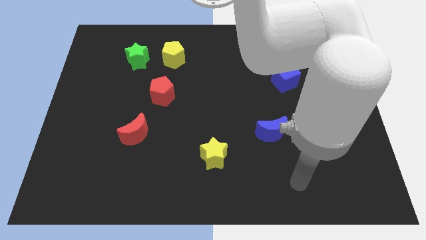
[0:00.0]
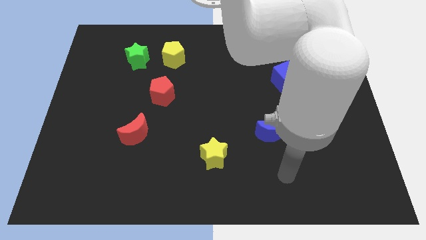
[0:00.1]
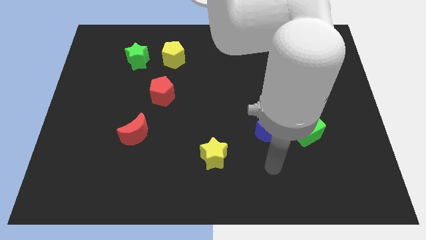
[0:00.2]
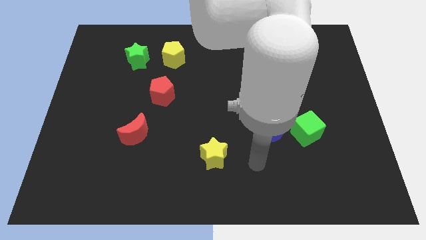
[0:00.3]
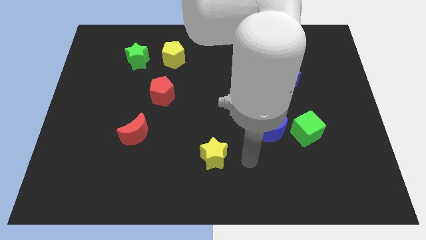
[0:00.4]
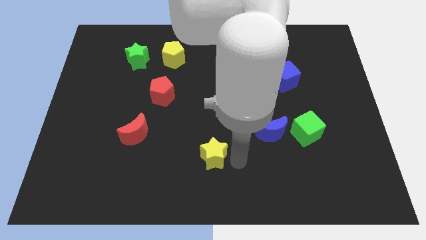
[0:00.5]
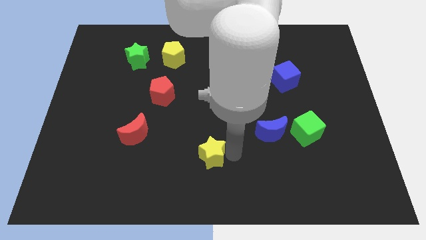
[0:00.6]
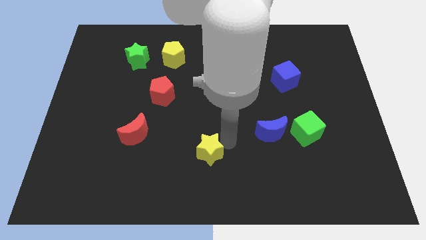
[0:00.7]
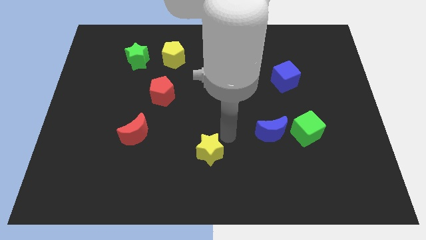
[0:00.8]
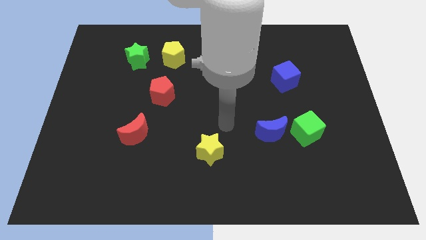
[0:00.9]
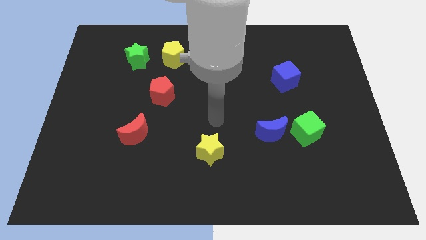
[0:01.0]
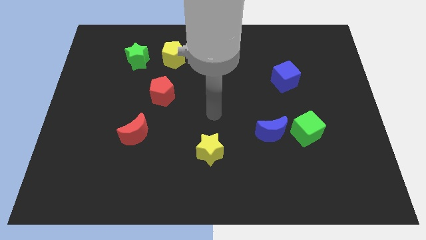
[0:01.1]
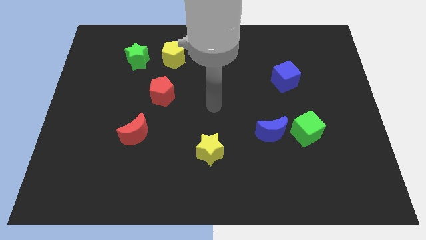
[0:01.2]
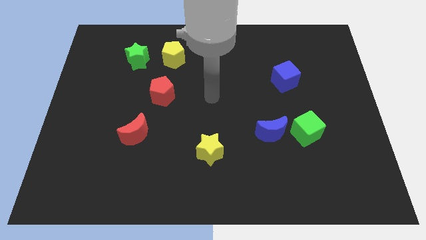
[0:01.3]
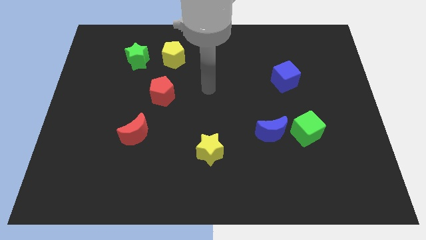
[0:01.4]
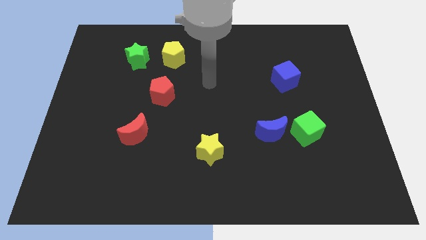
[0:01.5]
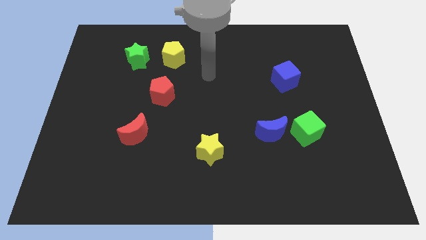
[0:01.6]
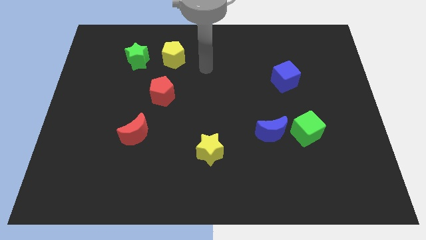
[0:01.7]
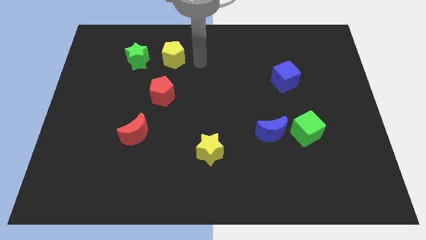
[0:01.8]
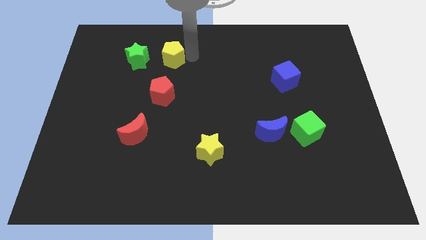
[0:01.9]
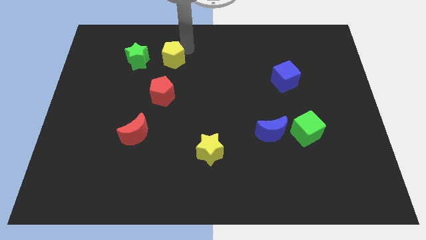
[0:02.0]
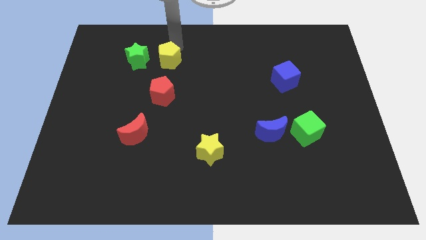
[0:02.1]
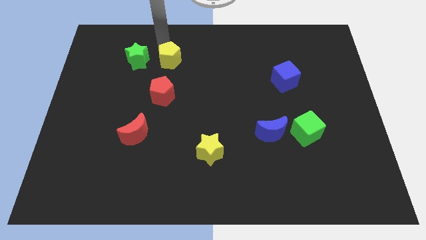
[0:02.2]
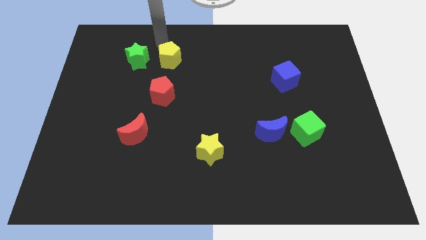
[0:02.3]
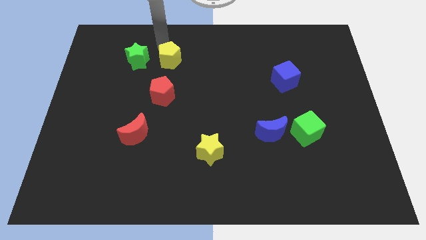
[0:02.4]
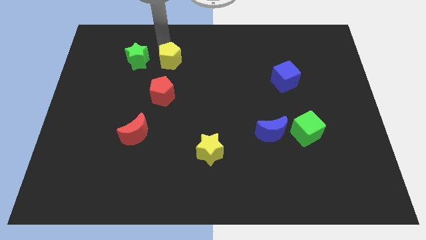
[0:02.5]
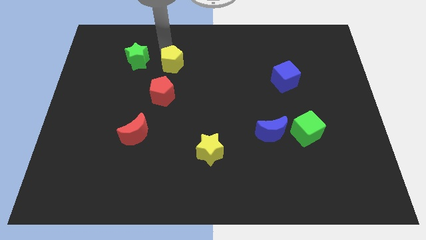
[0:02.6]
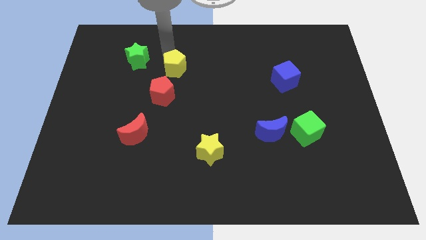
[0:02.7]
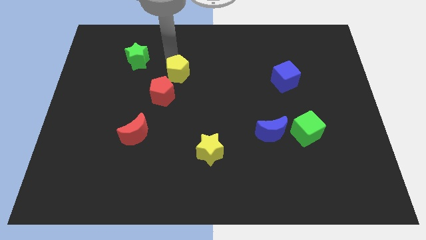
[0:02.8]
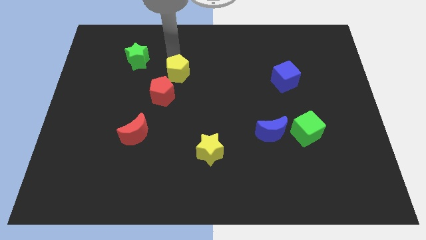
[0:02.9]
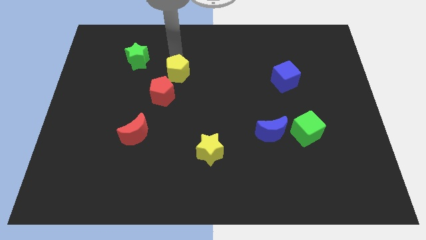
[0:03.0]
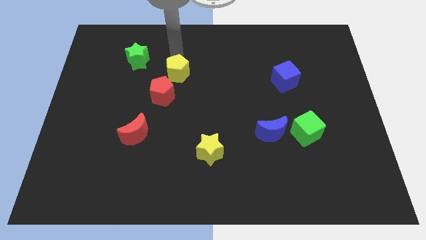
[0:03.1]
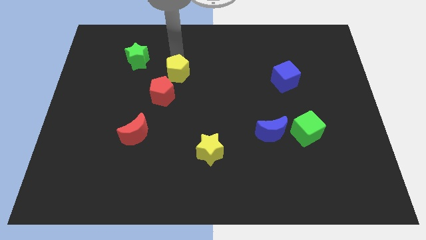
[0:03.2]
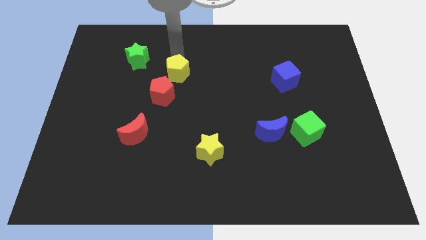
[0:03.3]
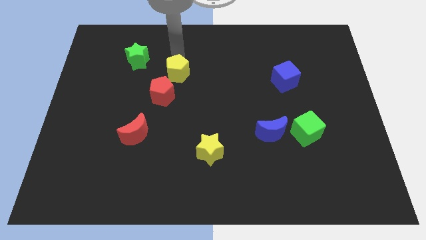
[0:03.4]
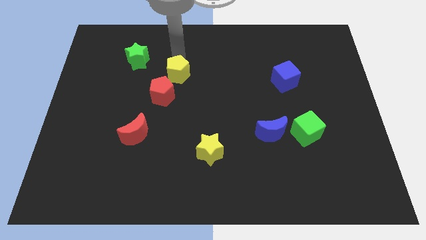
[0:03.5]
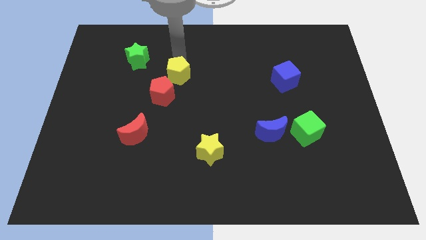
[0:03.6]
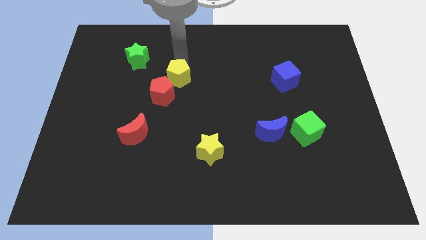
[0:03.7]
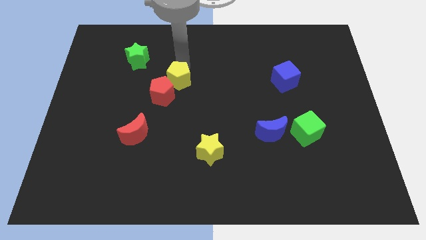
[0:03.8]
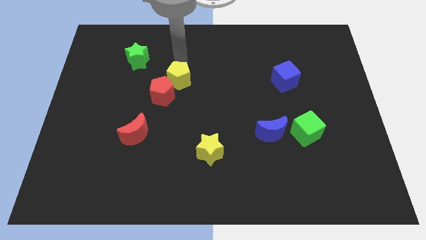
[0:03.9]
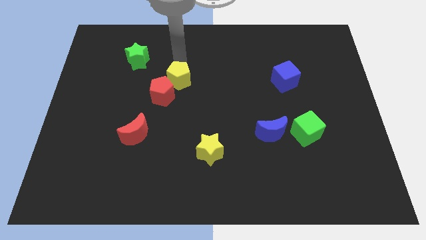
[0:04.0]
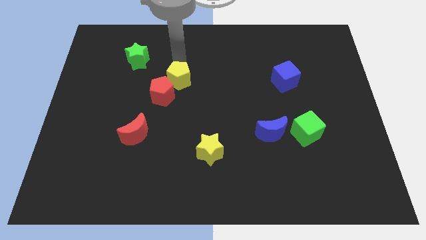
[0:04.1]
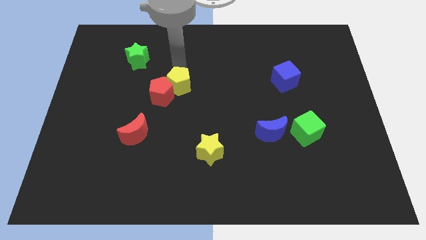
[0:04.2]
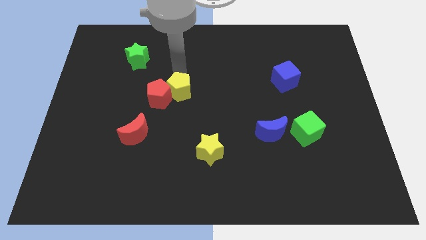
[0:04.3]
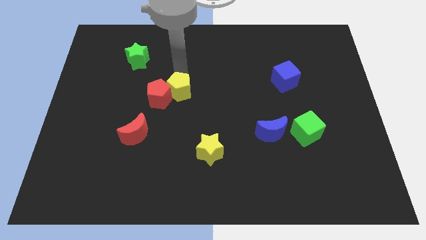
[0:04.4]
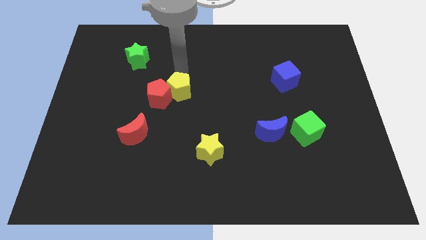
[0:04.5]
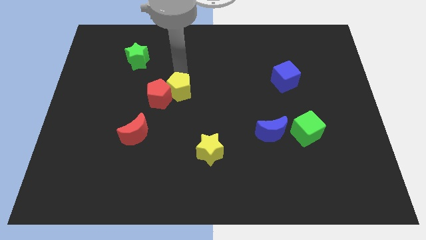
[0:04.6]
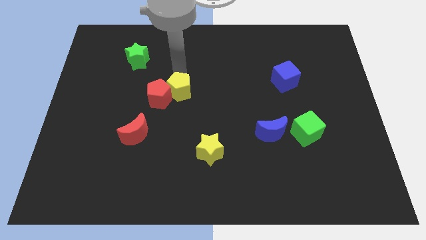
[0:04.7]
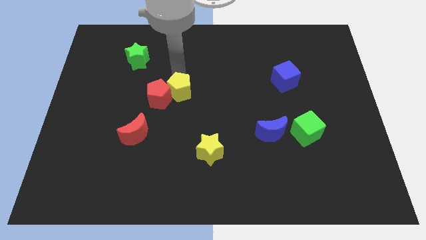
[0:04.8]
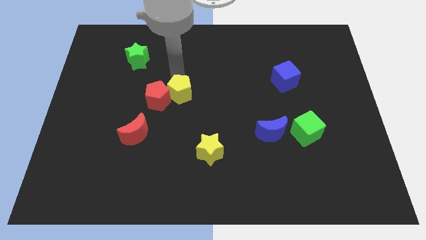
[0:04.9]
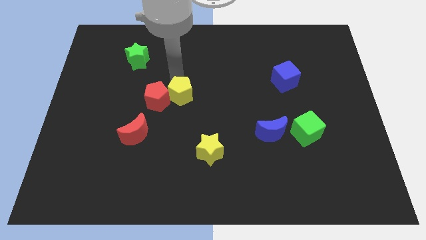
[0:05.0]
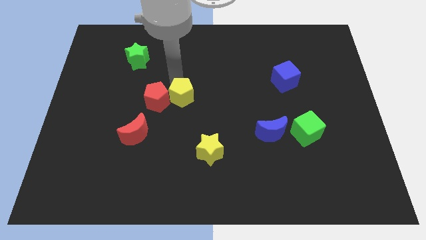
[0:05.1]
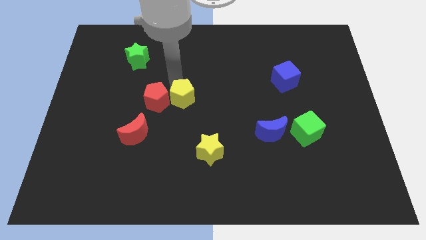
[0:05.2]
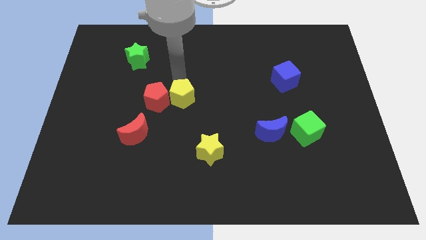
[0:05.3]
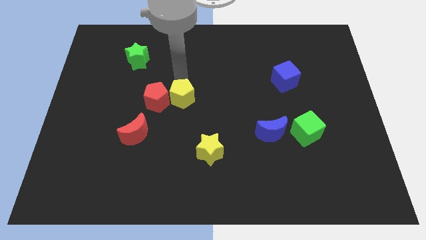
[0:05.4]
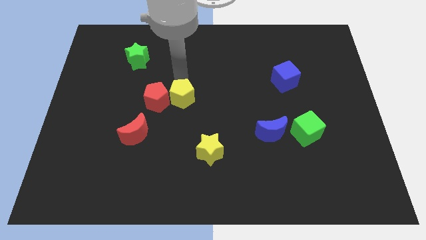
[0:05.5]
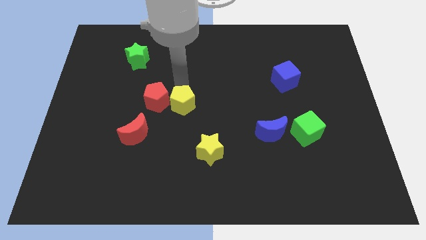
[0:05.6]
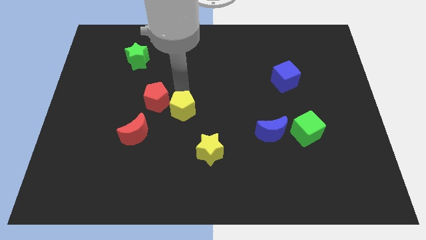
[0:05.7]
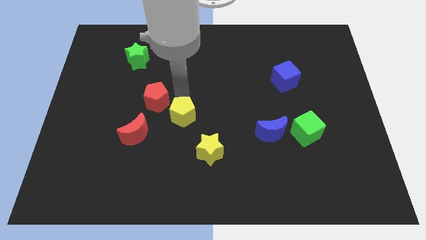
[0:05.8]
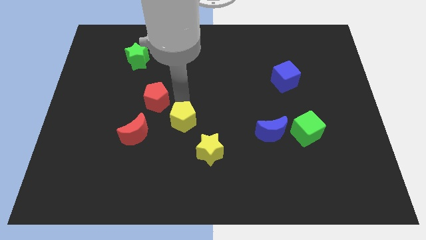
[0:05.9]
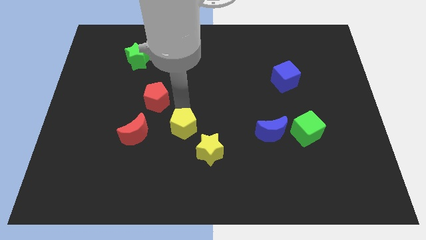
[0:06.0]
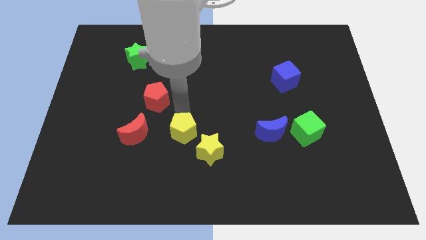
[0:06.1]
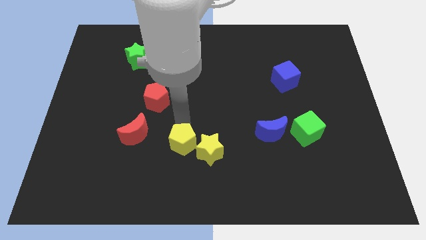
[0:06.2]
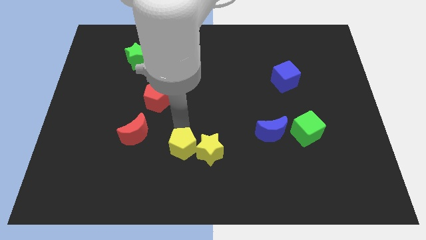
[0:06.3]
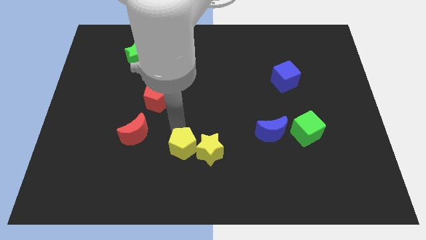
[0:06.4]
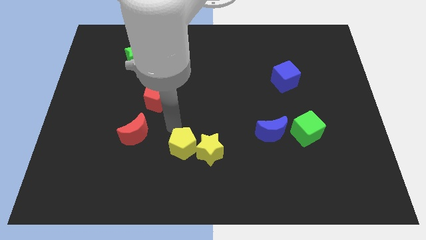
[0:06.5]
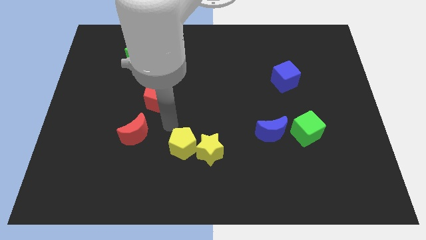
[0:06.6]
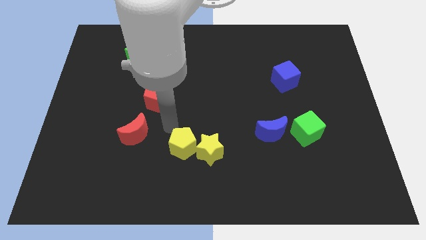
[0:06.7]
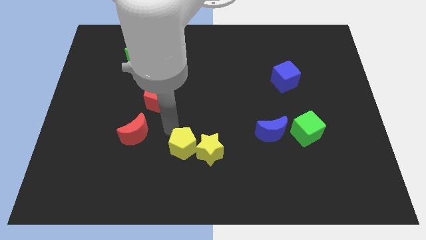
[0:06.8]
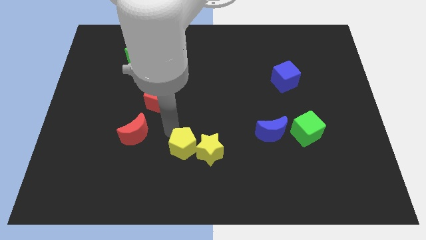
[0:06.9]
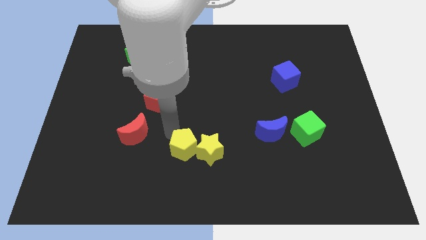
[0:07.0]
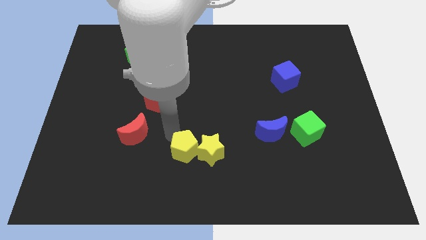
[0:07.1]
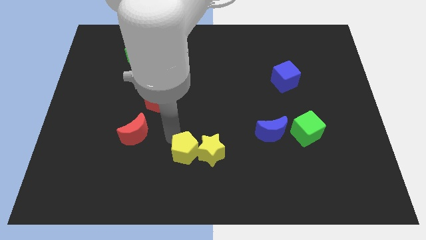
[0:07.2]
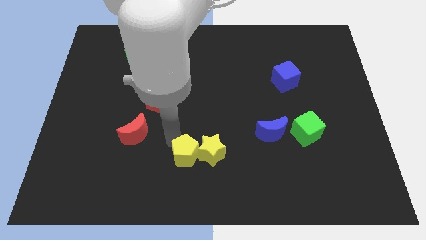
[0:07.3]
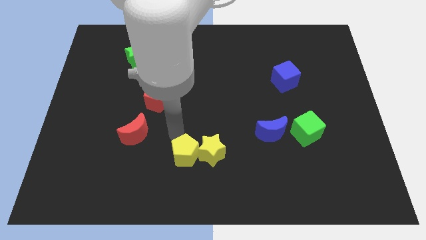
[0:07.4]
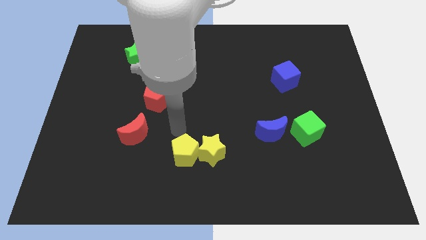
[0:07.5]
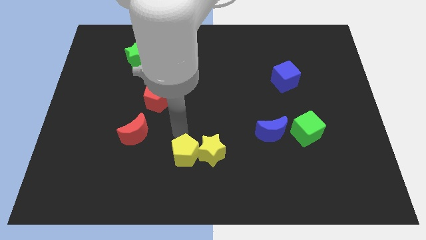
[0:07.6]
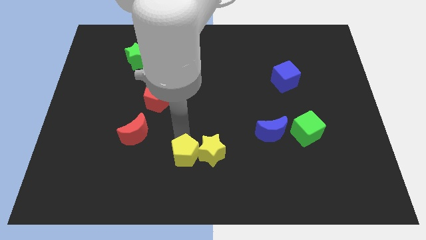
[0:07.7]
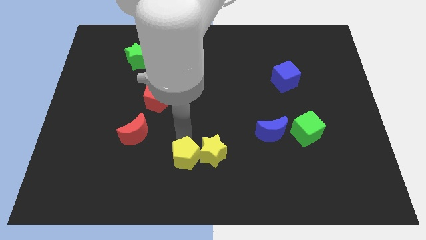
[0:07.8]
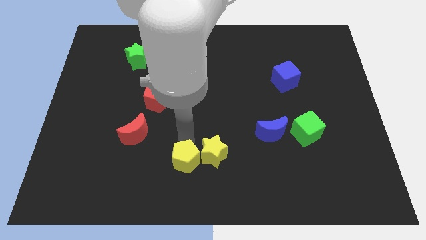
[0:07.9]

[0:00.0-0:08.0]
push the yellow pentagon to the bottom
